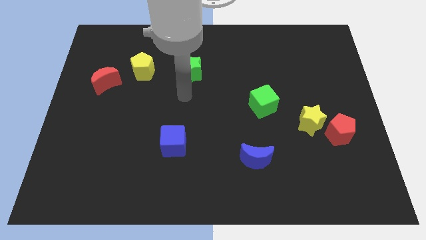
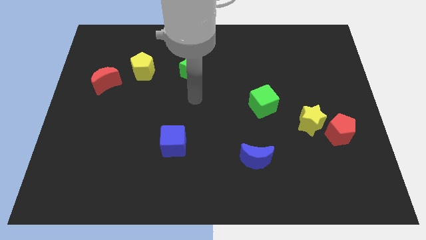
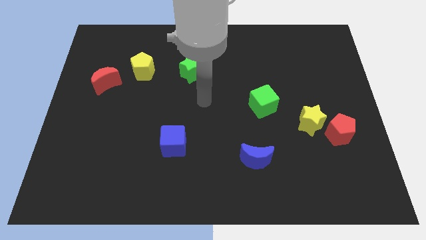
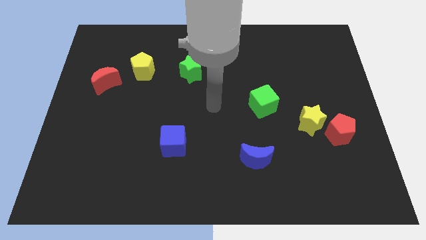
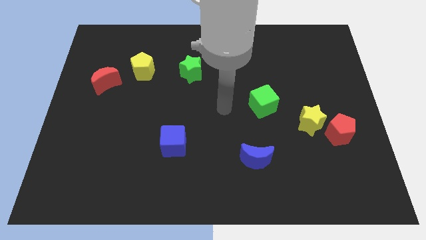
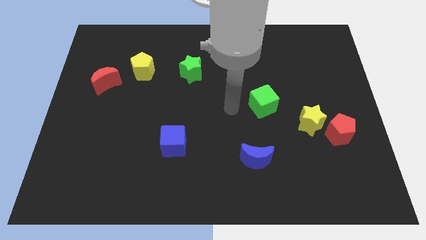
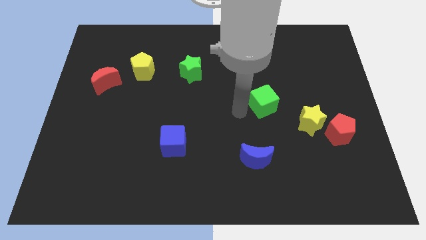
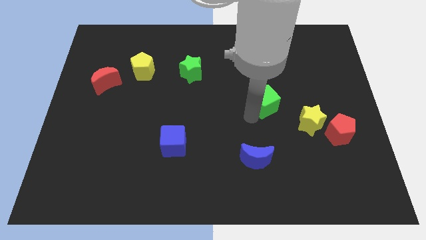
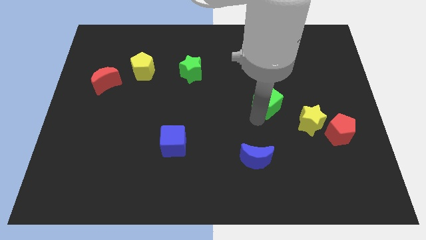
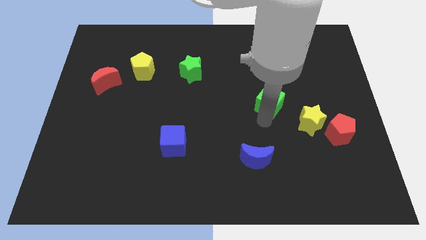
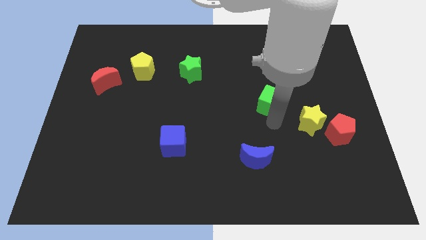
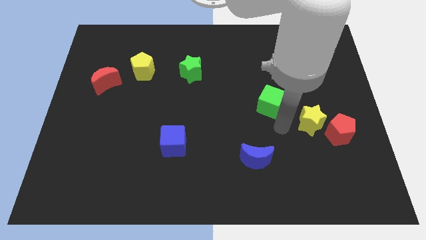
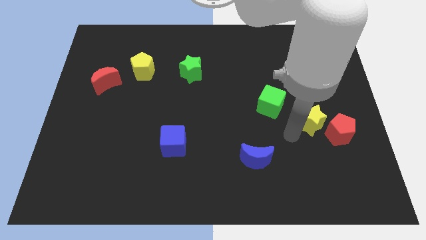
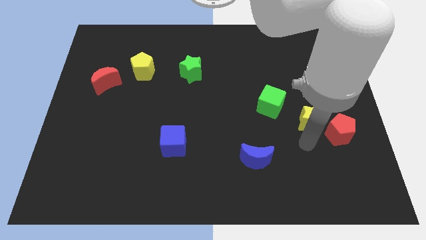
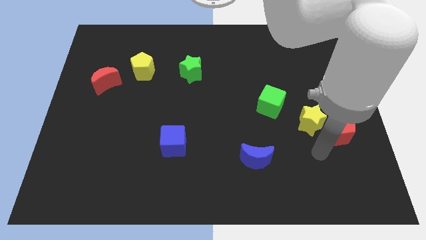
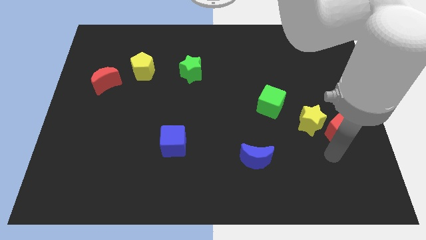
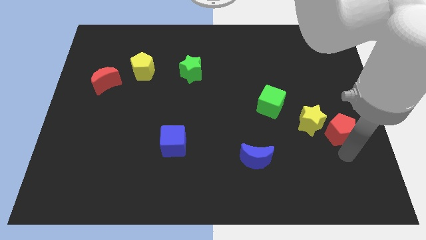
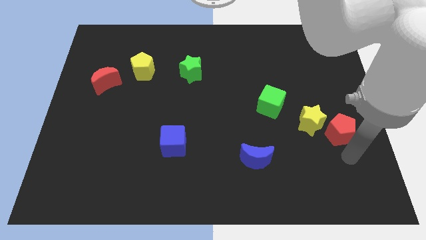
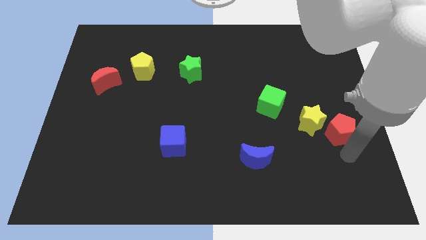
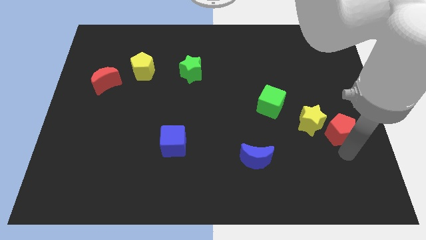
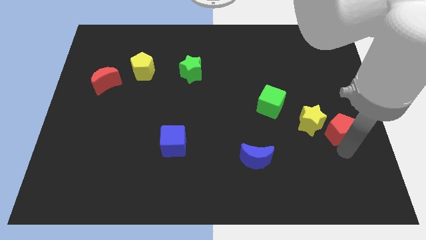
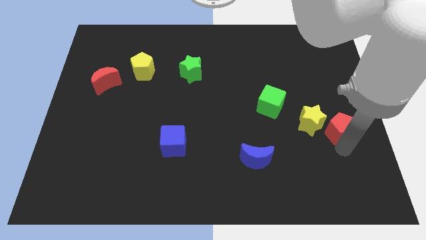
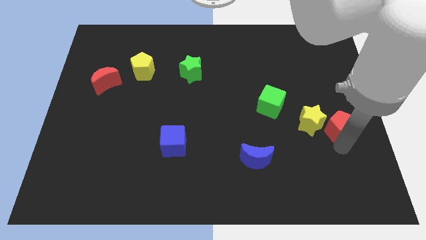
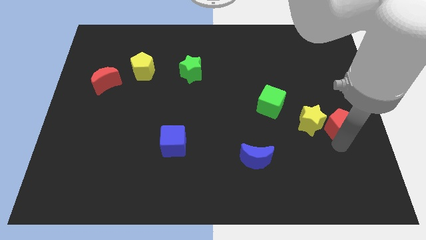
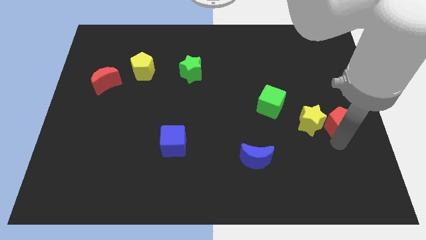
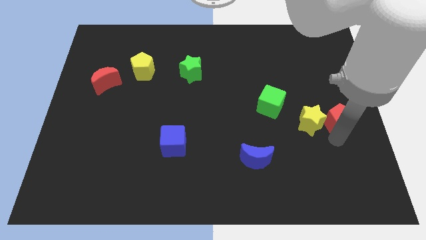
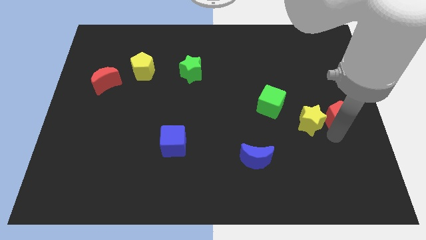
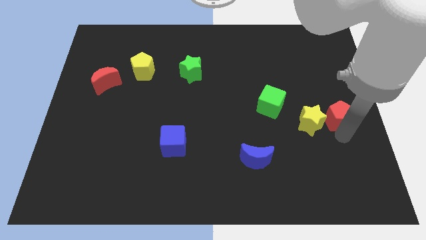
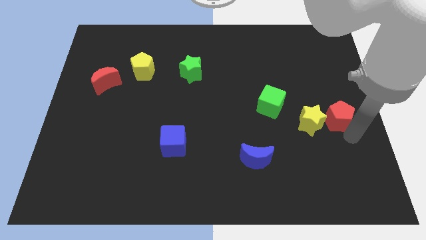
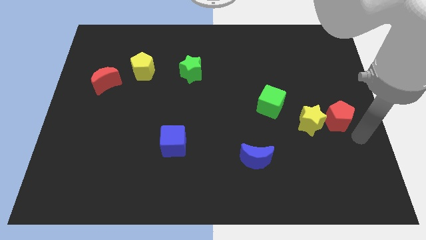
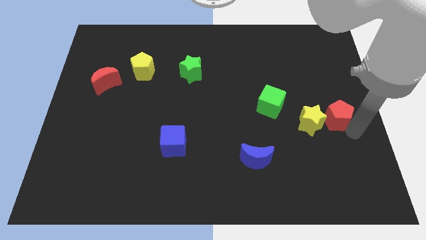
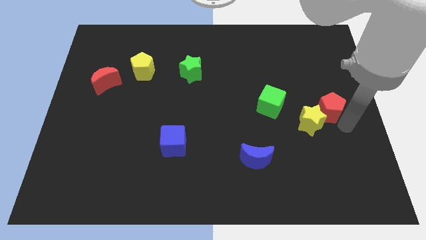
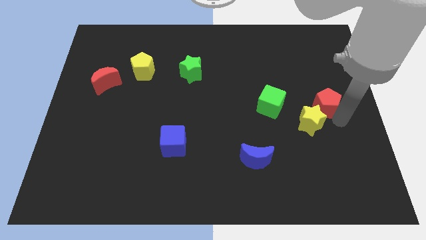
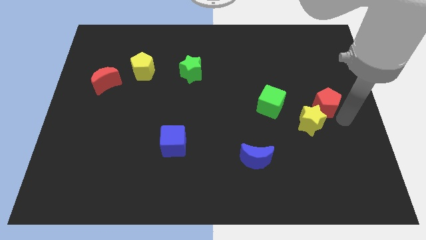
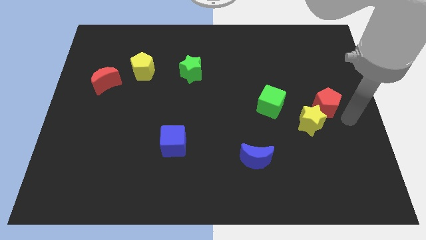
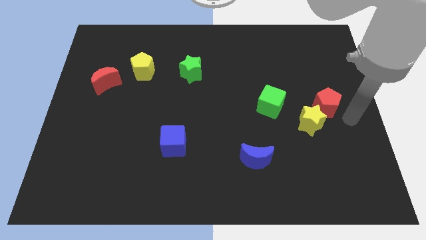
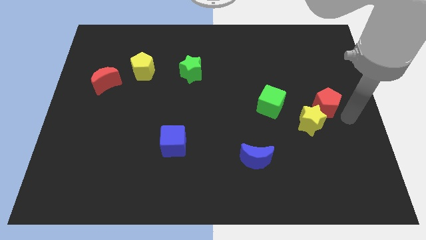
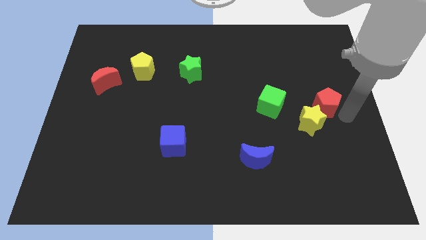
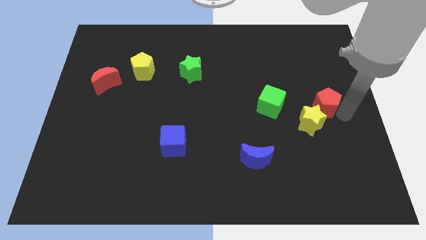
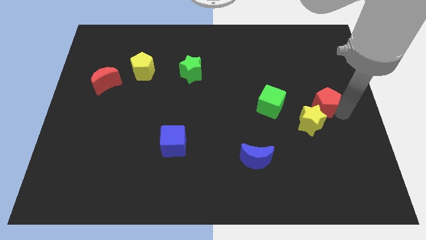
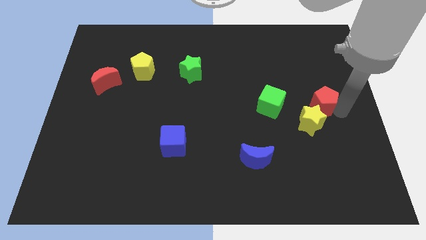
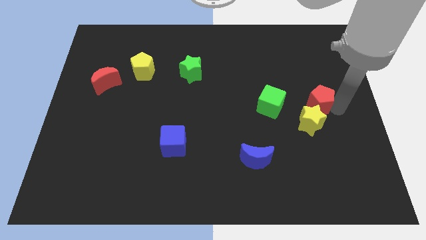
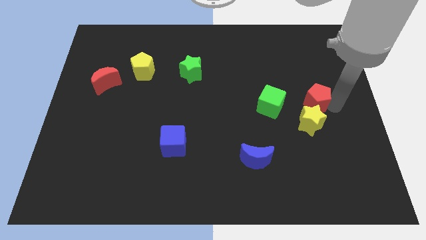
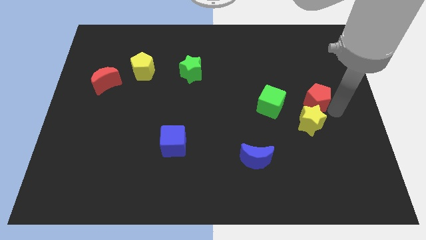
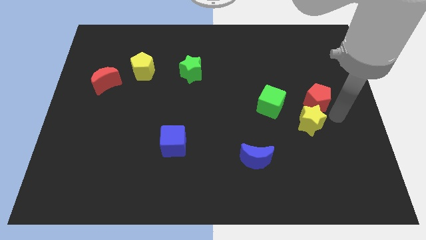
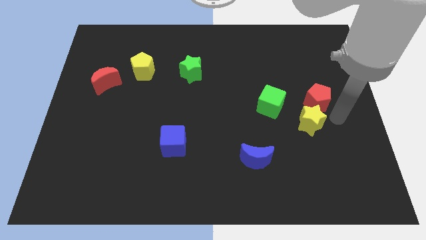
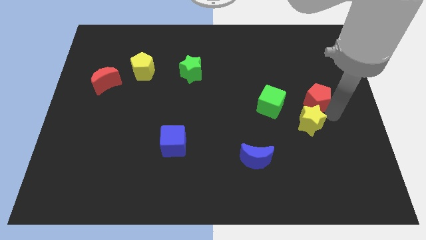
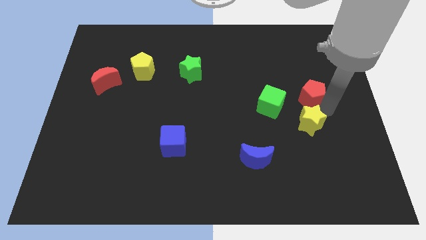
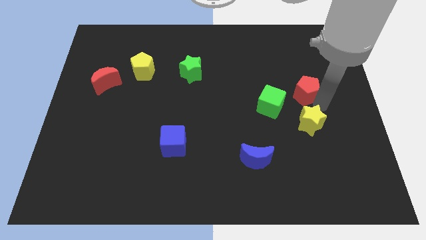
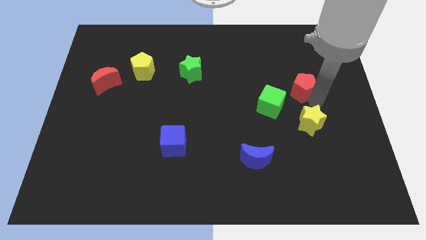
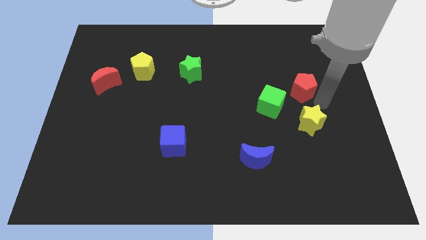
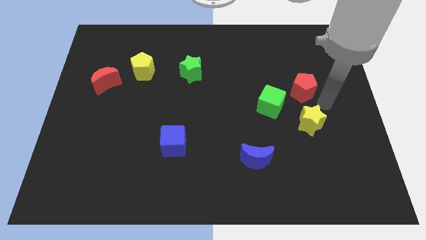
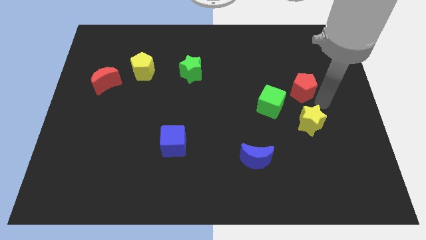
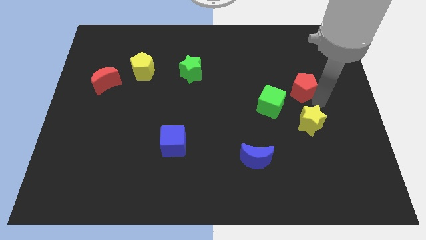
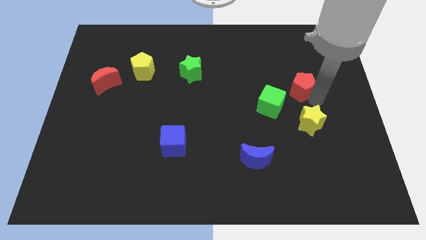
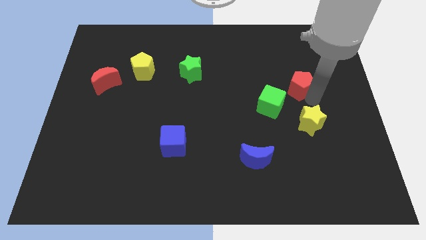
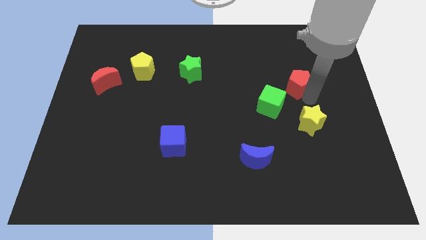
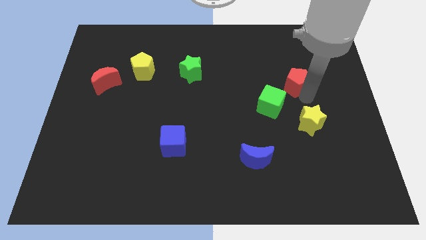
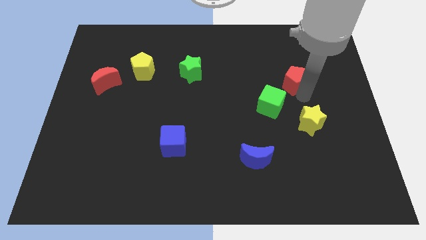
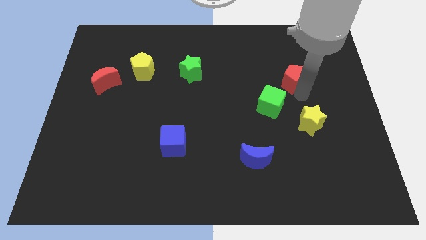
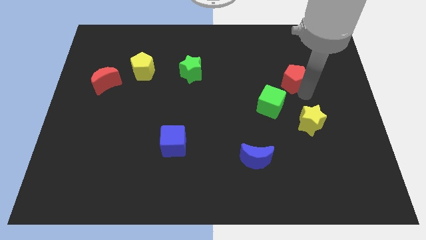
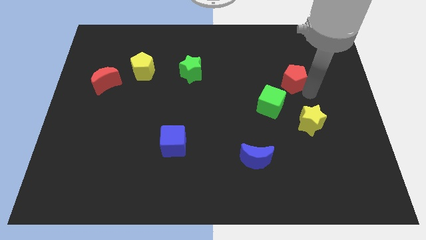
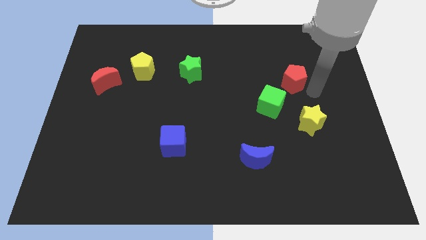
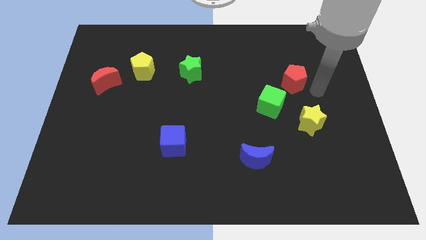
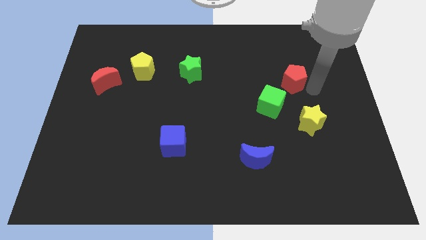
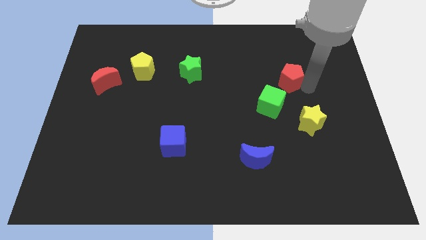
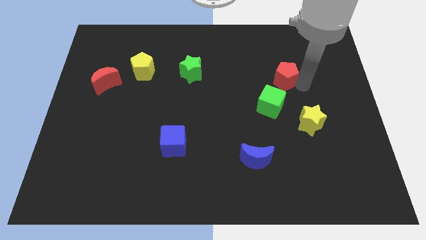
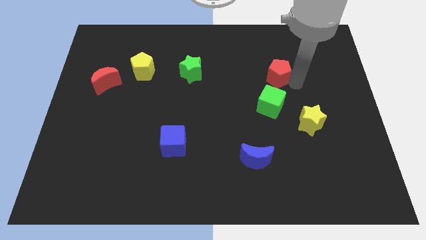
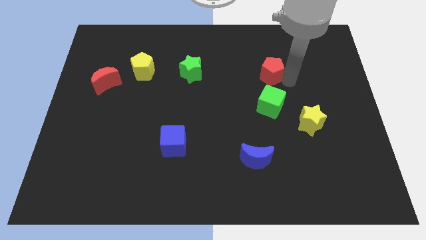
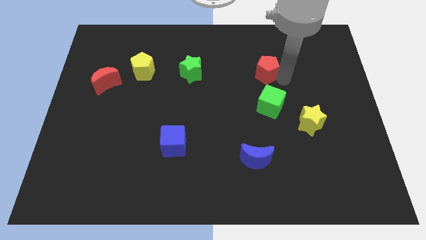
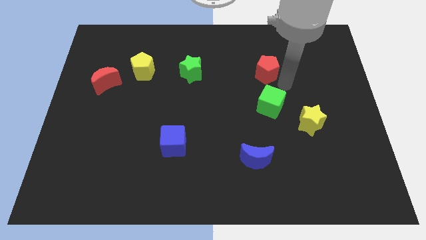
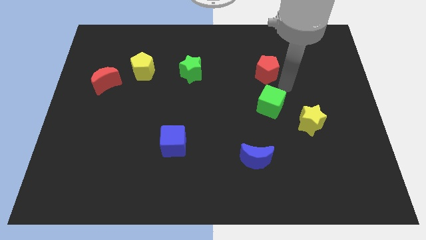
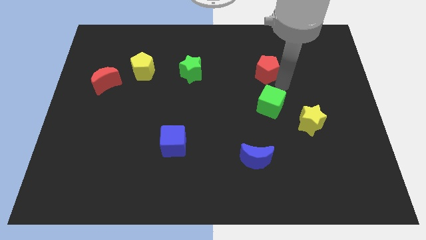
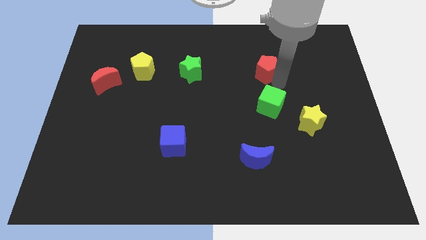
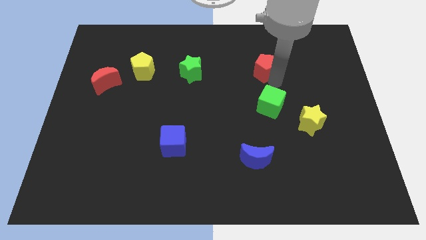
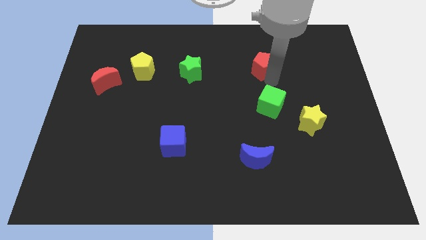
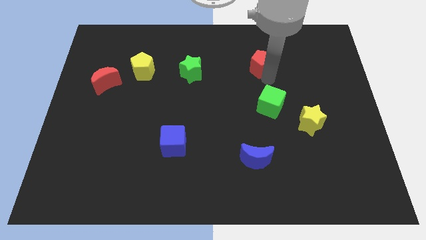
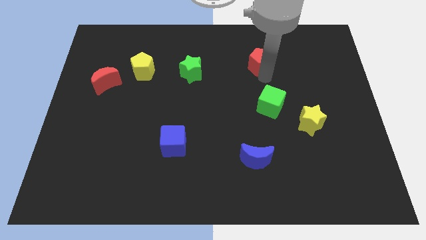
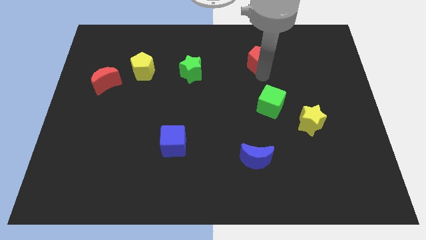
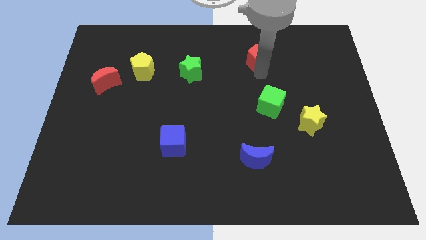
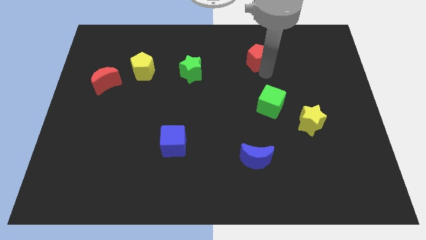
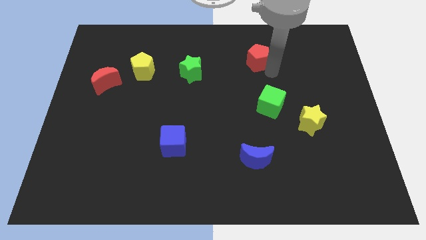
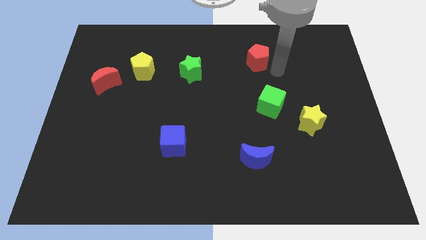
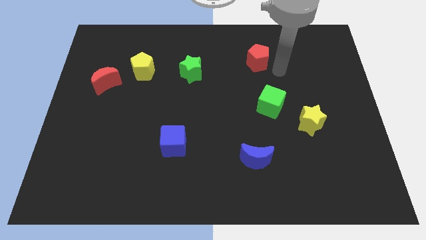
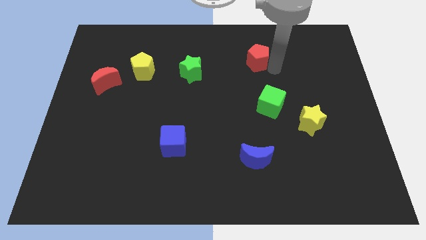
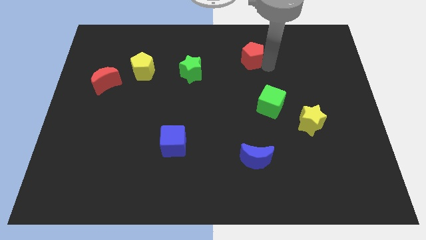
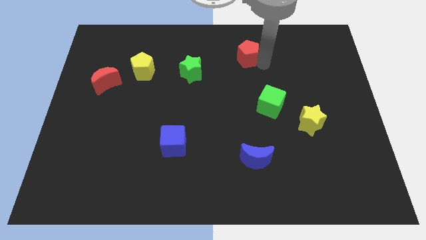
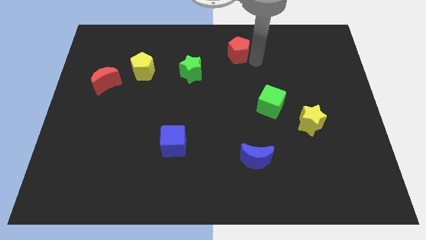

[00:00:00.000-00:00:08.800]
push the red pentagon to the top side
